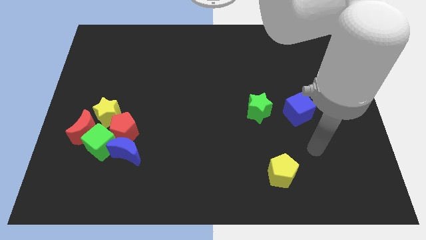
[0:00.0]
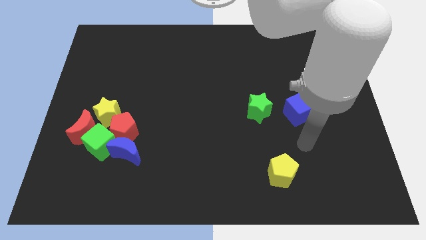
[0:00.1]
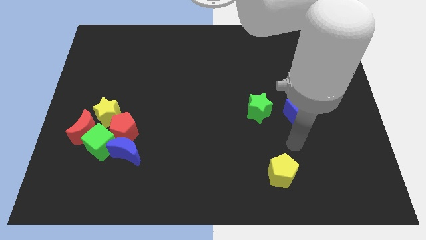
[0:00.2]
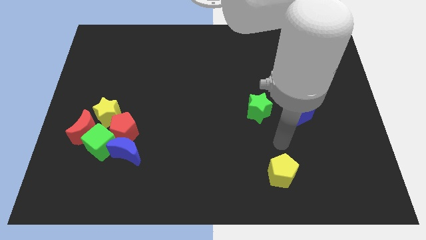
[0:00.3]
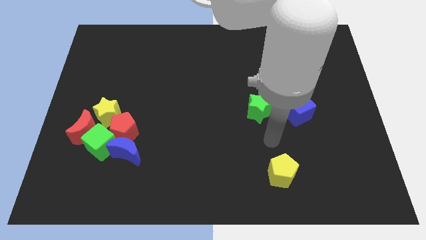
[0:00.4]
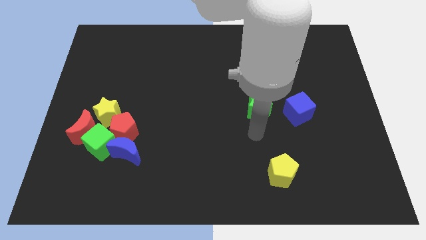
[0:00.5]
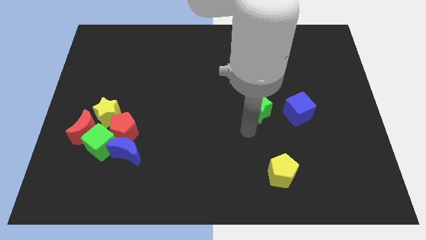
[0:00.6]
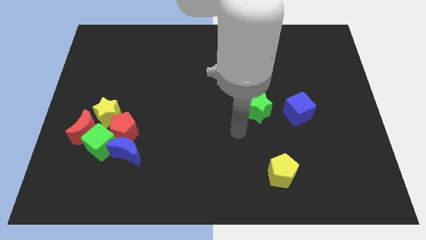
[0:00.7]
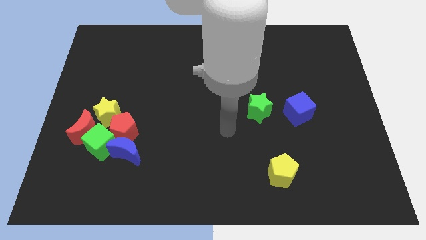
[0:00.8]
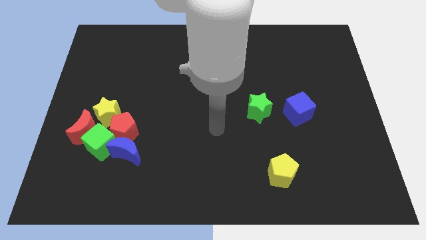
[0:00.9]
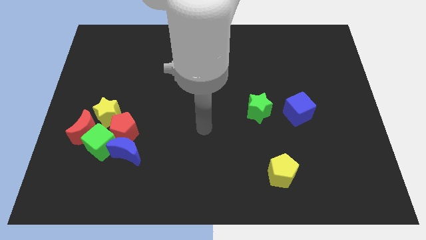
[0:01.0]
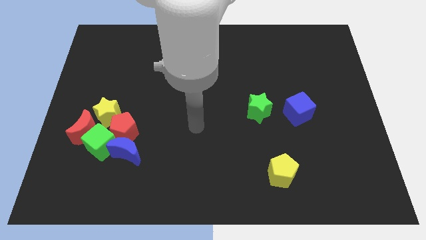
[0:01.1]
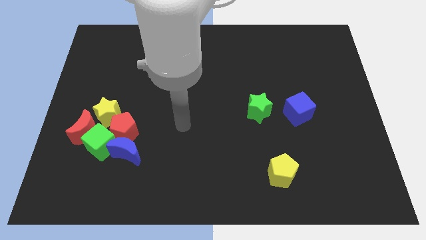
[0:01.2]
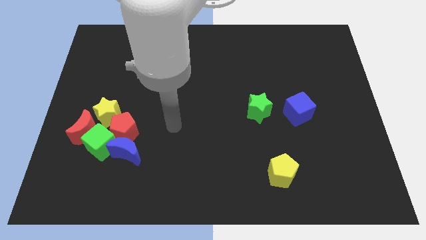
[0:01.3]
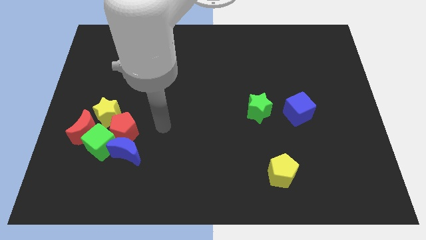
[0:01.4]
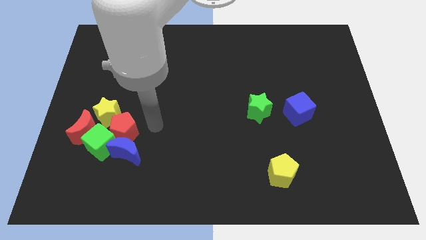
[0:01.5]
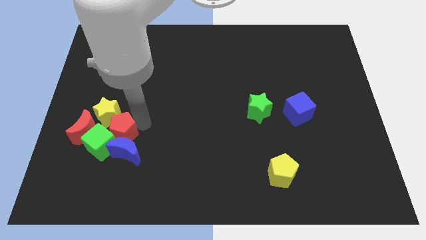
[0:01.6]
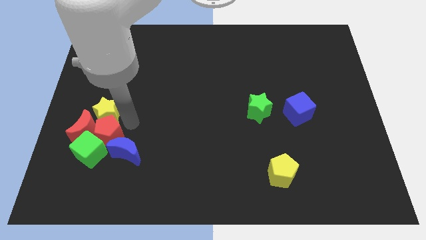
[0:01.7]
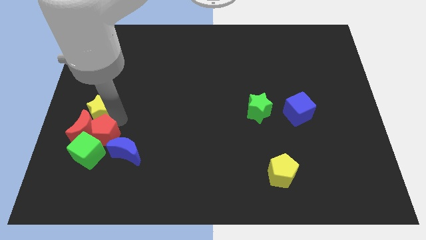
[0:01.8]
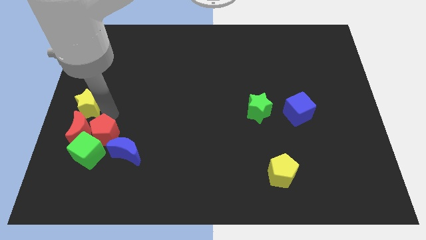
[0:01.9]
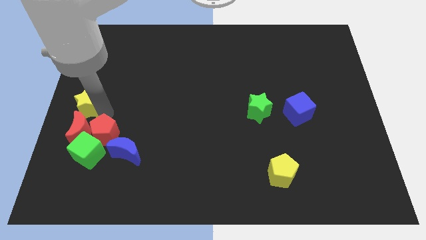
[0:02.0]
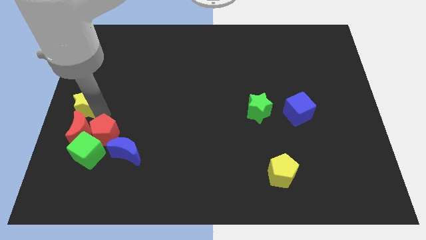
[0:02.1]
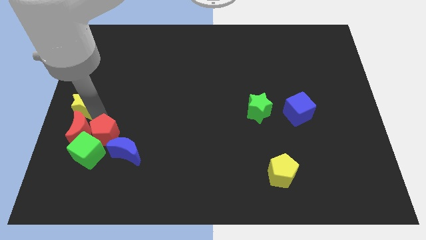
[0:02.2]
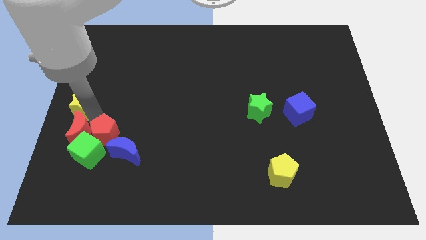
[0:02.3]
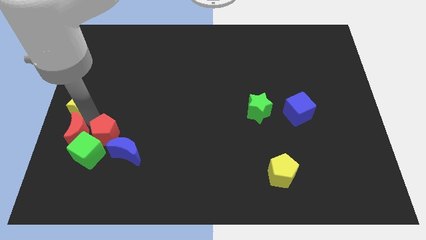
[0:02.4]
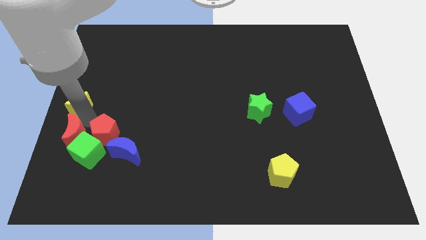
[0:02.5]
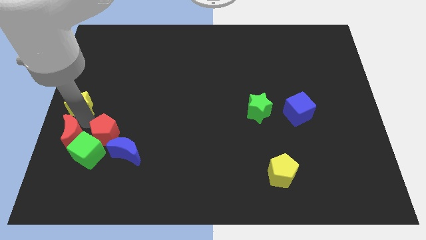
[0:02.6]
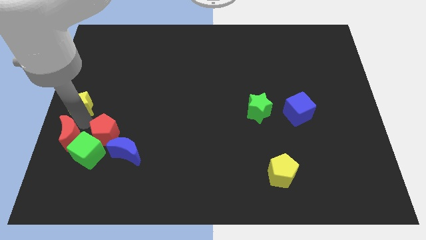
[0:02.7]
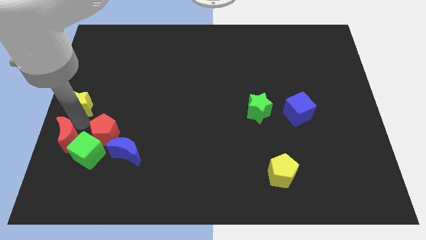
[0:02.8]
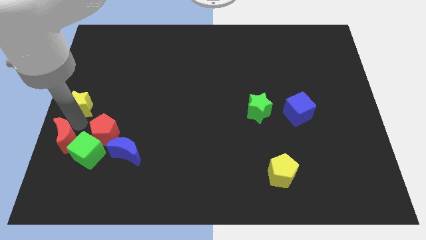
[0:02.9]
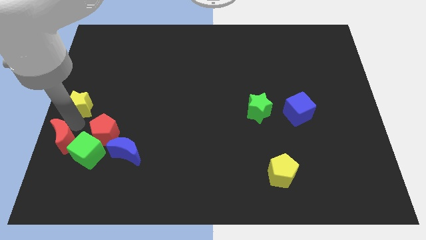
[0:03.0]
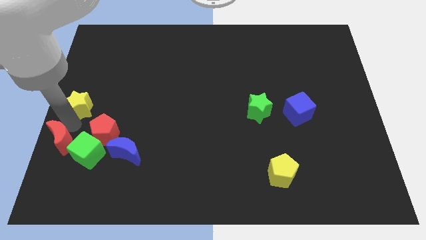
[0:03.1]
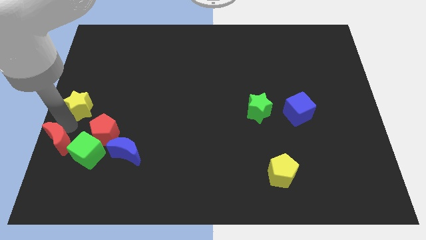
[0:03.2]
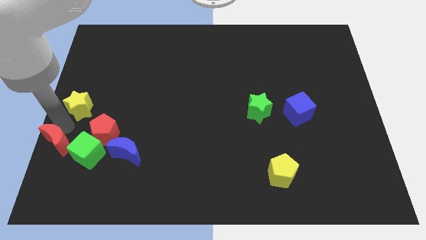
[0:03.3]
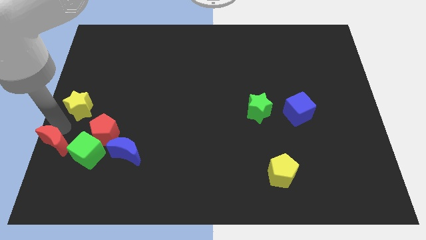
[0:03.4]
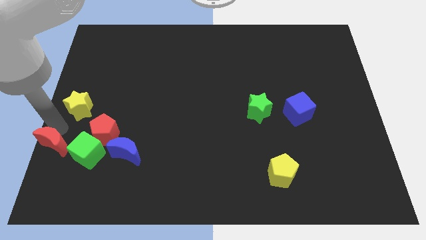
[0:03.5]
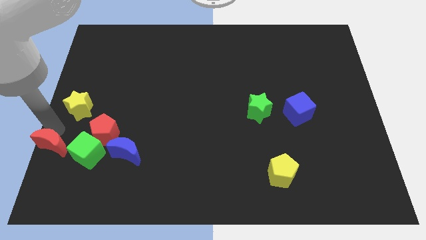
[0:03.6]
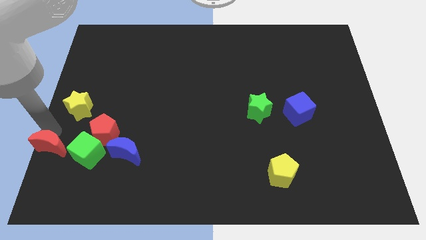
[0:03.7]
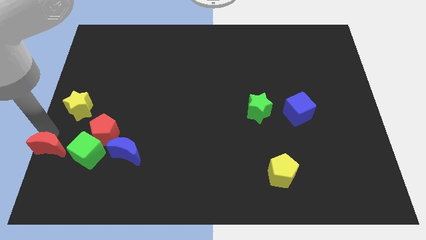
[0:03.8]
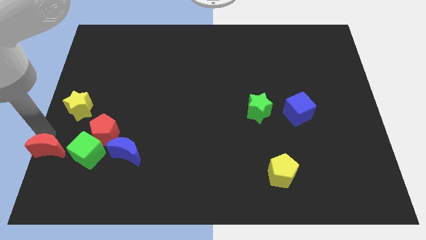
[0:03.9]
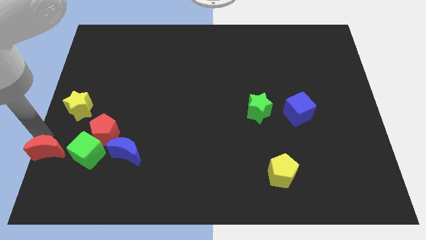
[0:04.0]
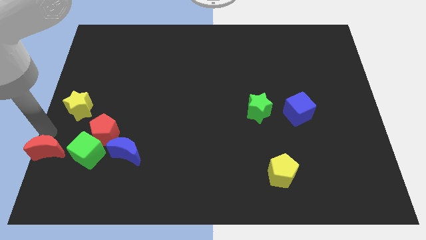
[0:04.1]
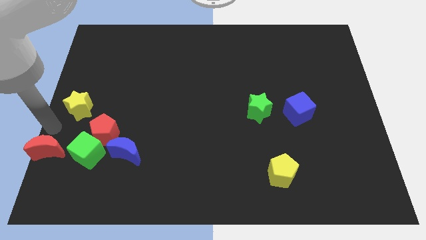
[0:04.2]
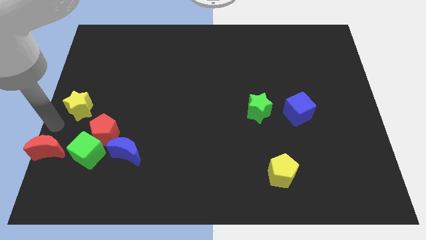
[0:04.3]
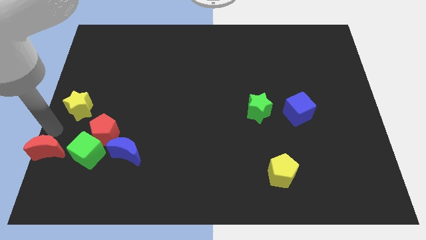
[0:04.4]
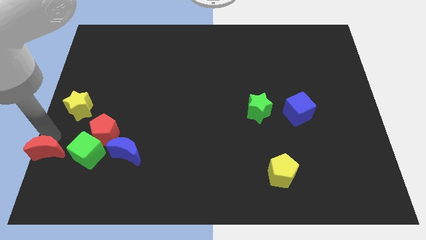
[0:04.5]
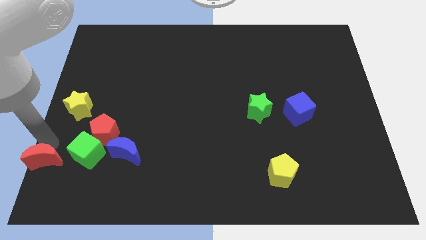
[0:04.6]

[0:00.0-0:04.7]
move the red moon to the bottom left of the board
